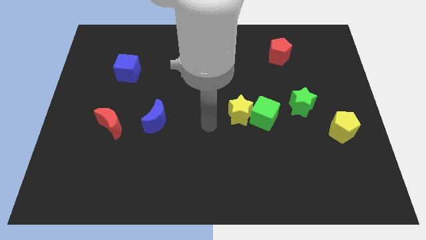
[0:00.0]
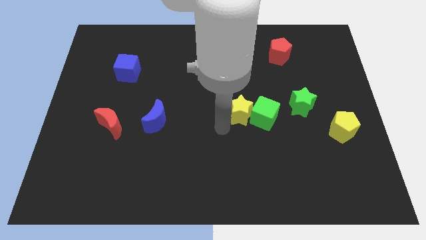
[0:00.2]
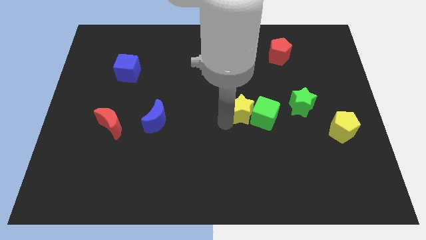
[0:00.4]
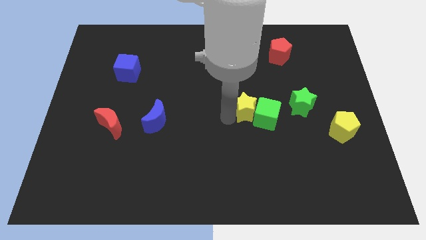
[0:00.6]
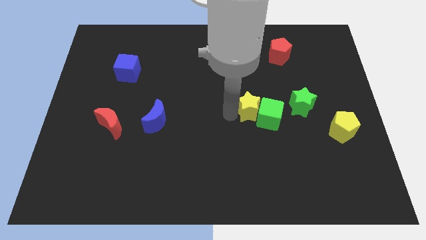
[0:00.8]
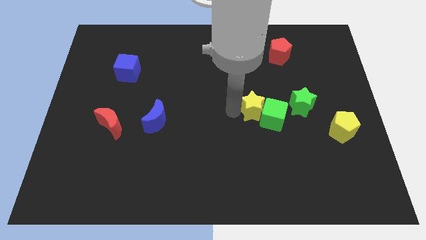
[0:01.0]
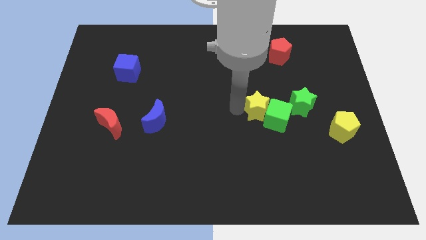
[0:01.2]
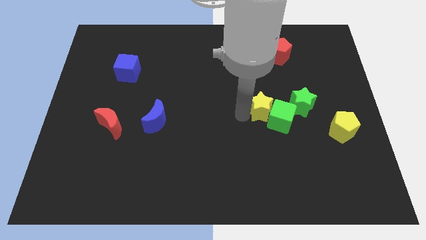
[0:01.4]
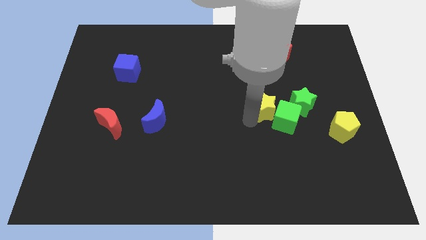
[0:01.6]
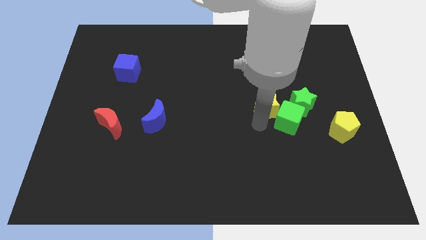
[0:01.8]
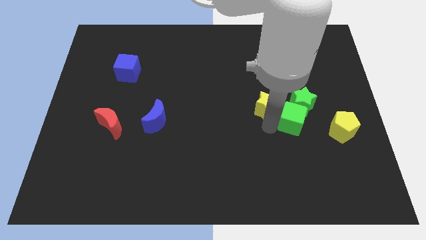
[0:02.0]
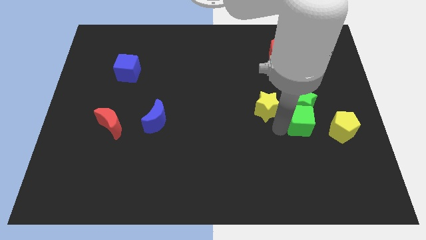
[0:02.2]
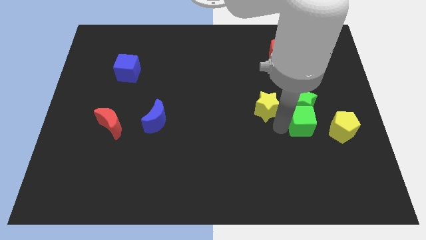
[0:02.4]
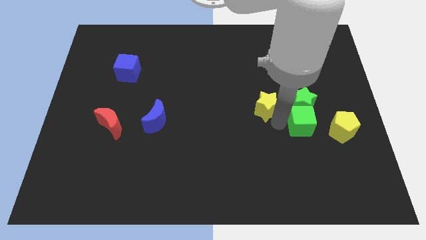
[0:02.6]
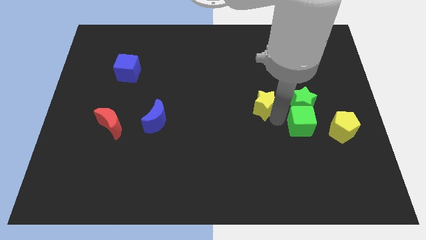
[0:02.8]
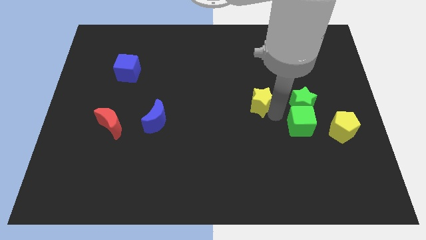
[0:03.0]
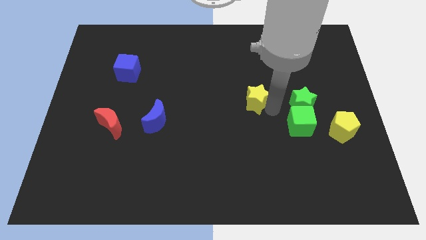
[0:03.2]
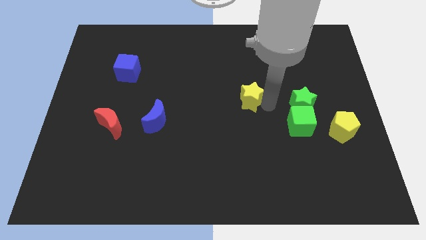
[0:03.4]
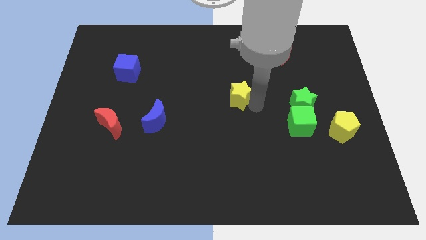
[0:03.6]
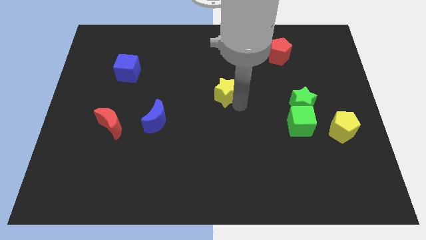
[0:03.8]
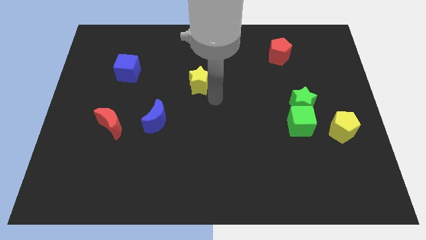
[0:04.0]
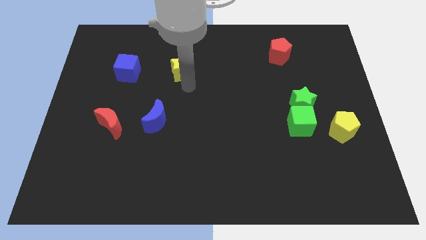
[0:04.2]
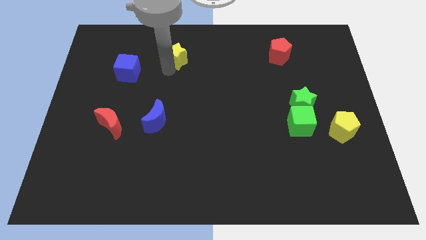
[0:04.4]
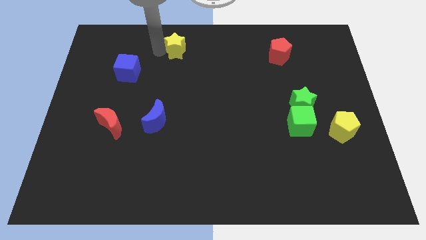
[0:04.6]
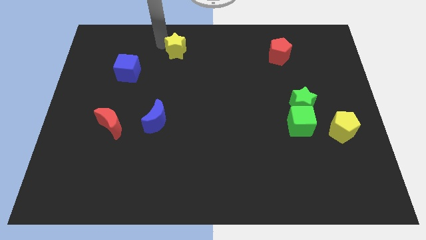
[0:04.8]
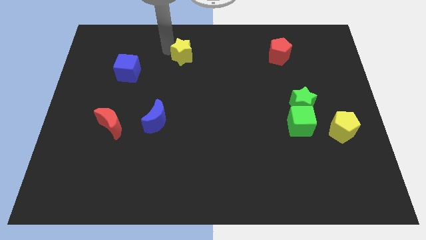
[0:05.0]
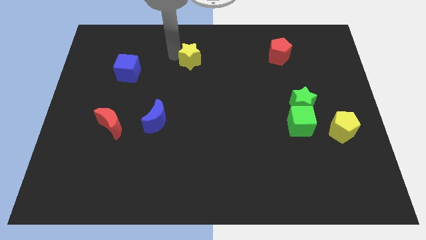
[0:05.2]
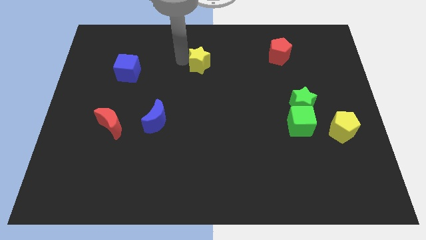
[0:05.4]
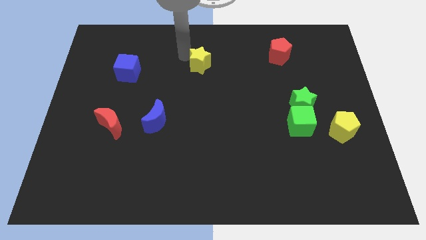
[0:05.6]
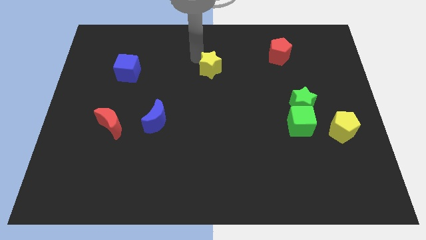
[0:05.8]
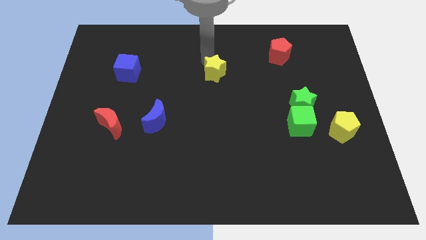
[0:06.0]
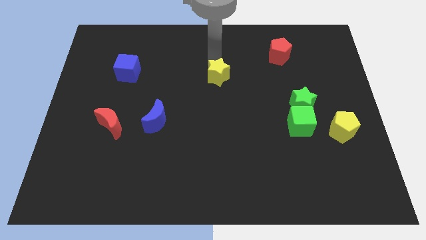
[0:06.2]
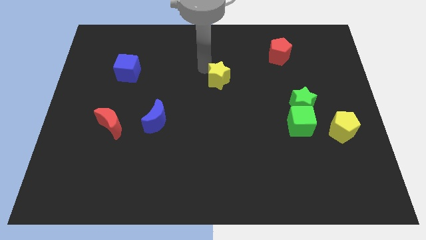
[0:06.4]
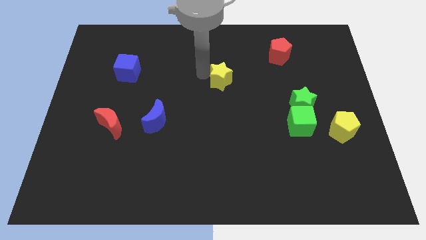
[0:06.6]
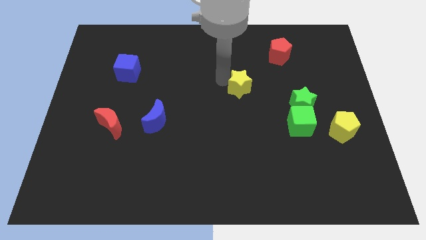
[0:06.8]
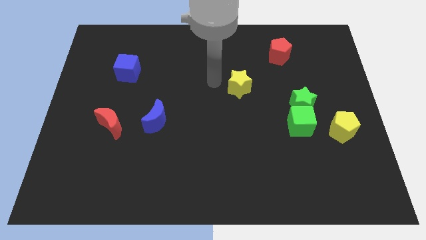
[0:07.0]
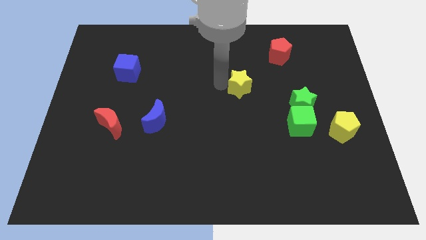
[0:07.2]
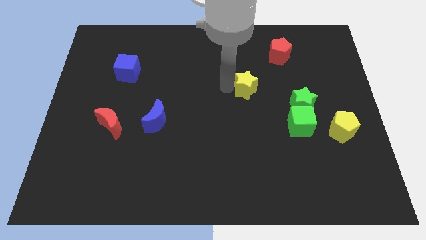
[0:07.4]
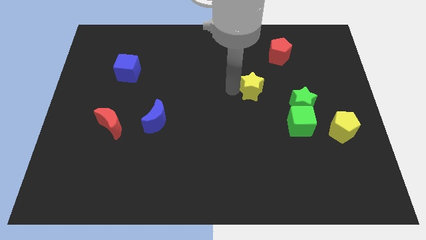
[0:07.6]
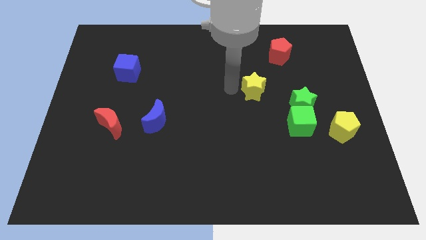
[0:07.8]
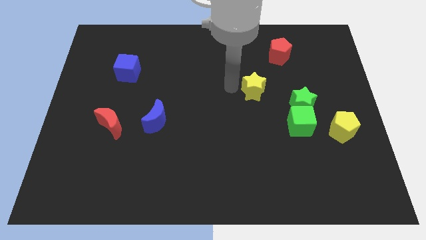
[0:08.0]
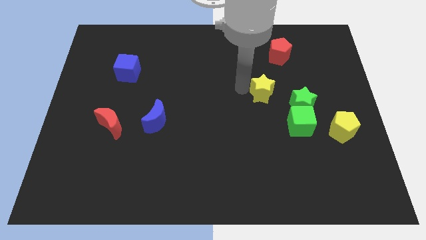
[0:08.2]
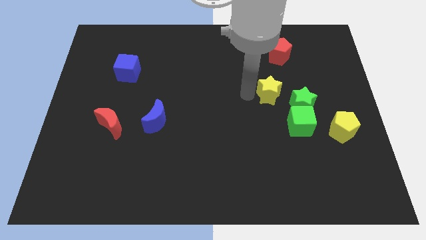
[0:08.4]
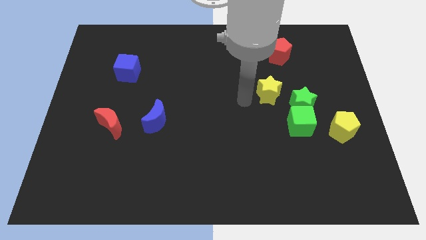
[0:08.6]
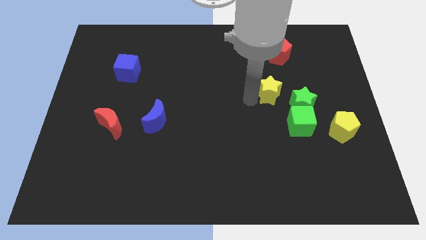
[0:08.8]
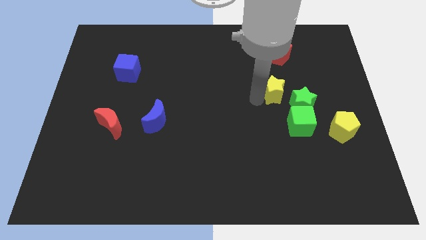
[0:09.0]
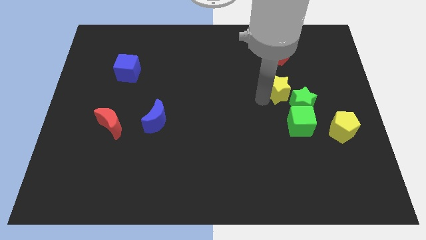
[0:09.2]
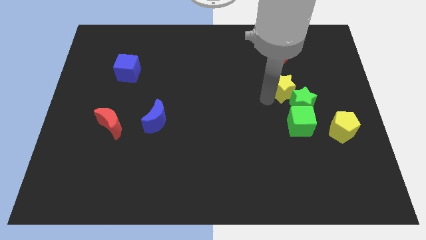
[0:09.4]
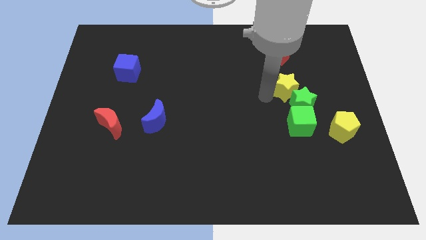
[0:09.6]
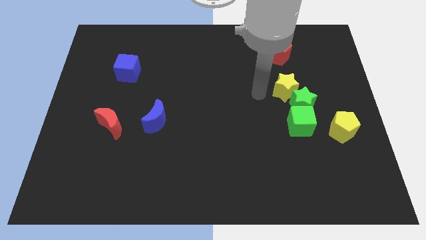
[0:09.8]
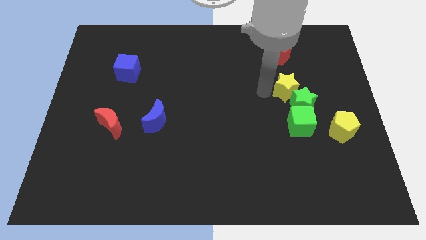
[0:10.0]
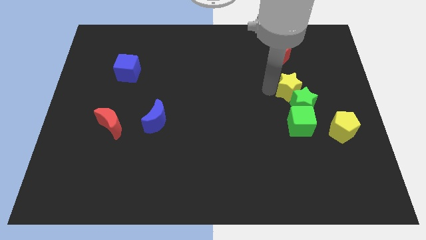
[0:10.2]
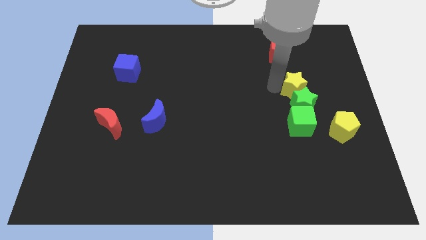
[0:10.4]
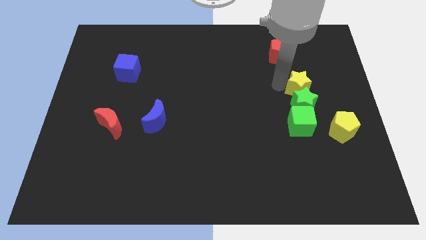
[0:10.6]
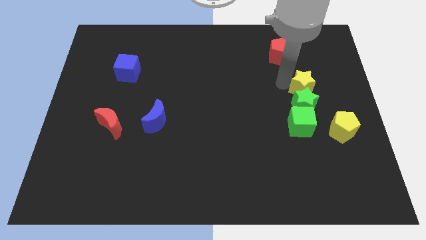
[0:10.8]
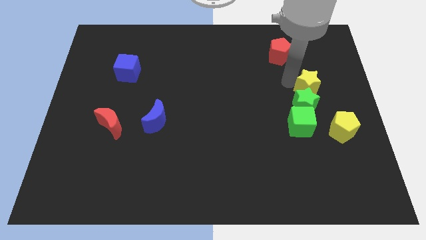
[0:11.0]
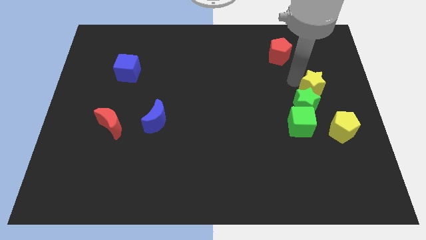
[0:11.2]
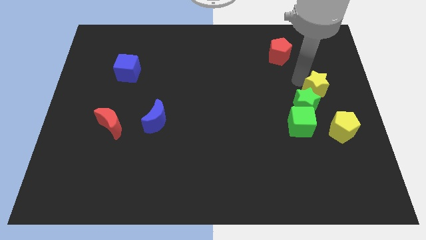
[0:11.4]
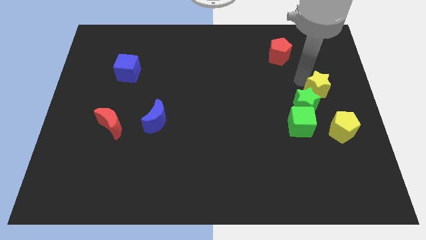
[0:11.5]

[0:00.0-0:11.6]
put the yellow star to the right side of the board

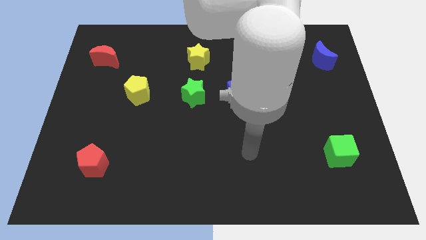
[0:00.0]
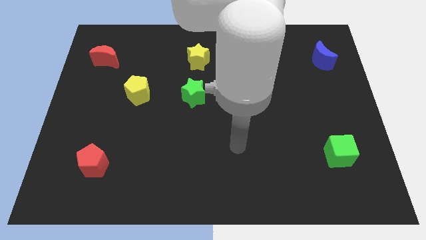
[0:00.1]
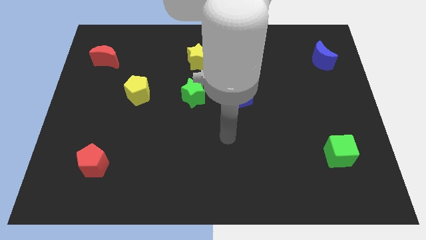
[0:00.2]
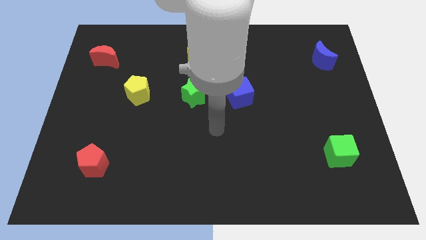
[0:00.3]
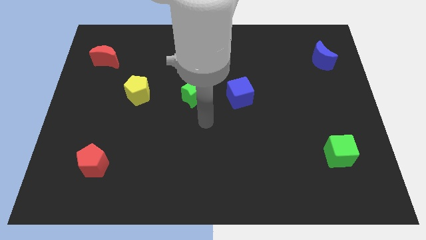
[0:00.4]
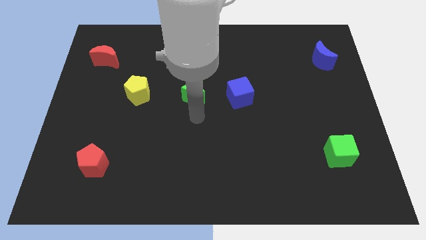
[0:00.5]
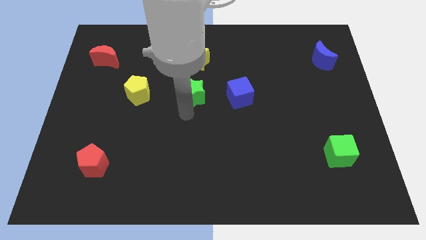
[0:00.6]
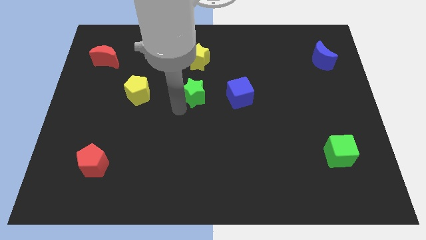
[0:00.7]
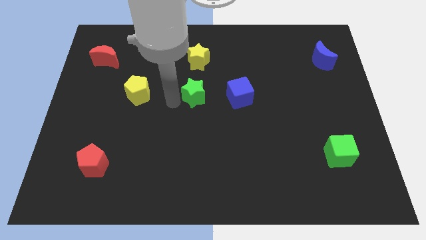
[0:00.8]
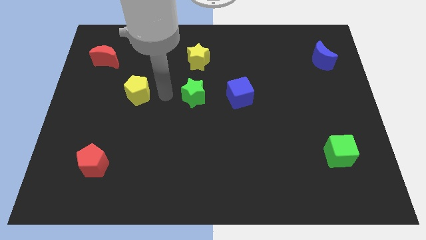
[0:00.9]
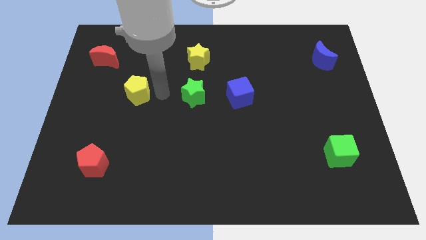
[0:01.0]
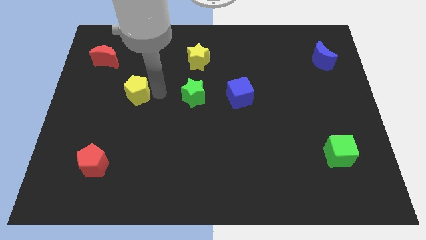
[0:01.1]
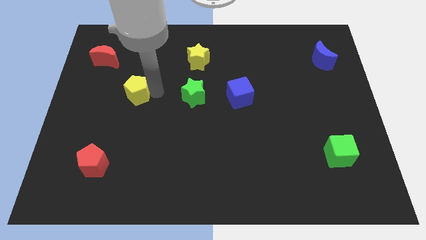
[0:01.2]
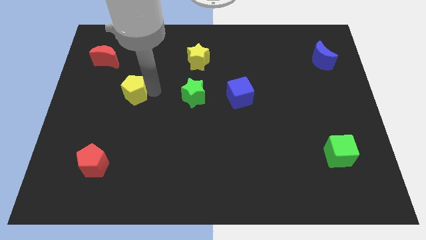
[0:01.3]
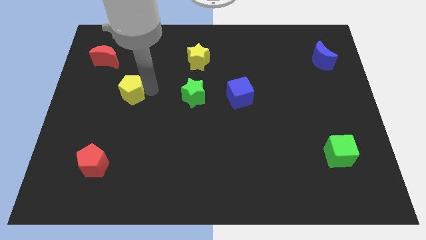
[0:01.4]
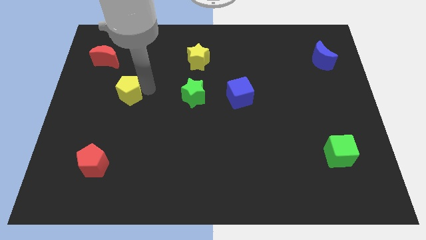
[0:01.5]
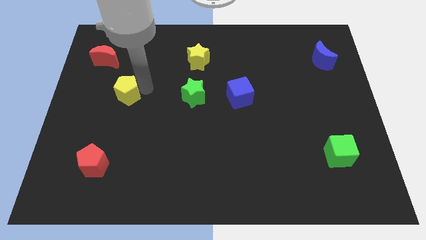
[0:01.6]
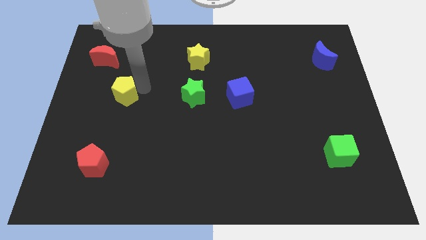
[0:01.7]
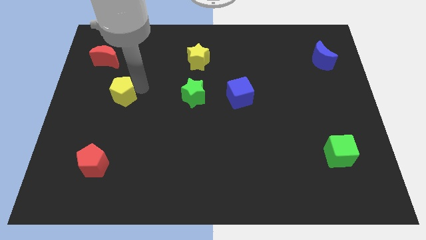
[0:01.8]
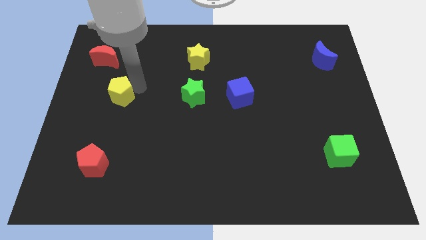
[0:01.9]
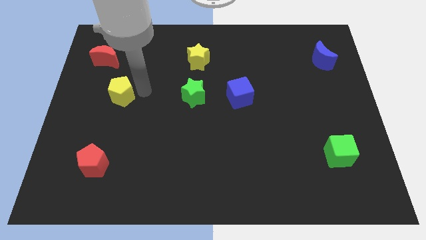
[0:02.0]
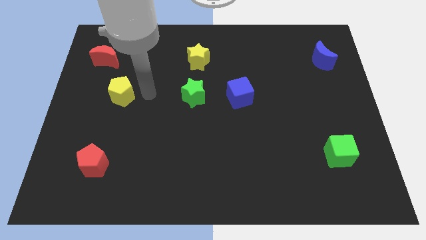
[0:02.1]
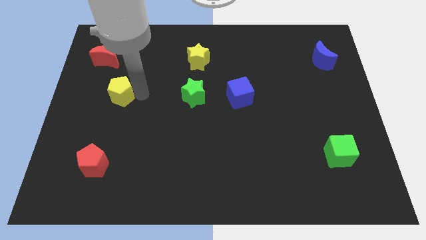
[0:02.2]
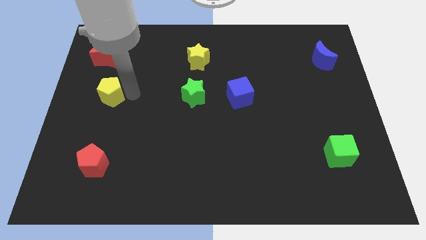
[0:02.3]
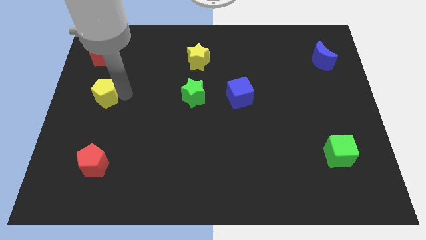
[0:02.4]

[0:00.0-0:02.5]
put the yellow pentagon to the left side
